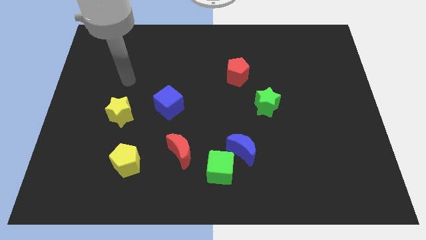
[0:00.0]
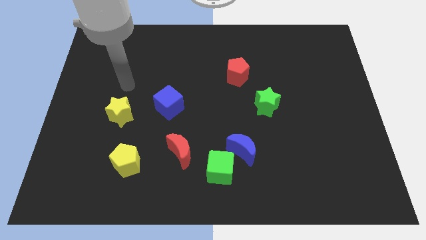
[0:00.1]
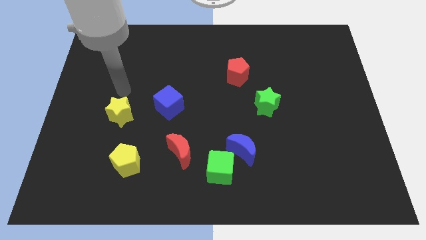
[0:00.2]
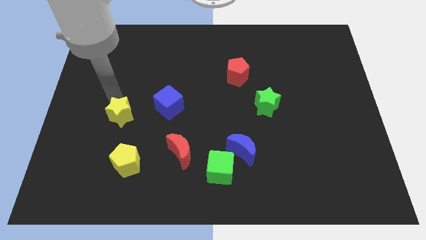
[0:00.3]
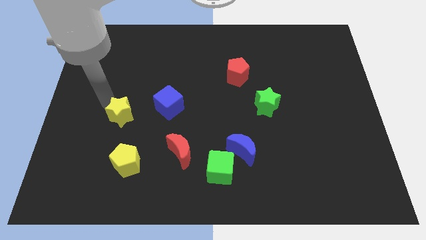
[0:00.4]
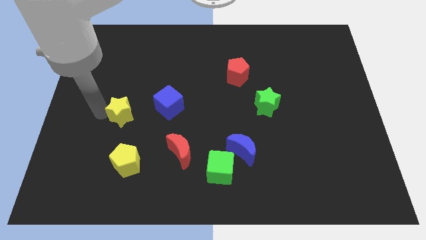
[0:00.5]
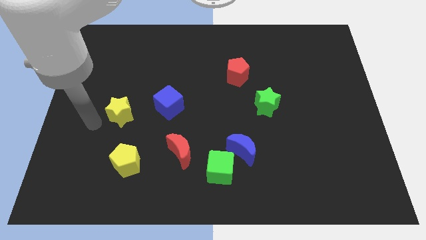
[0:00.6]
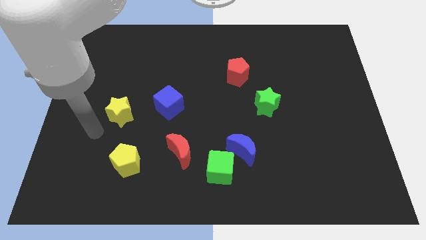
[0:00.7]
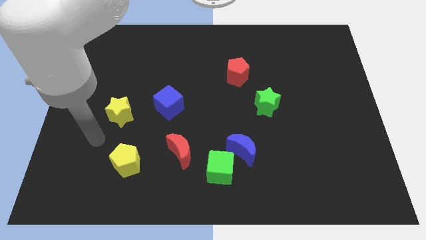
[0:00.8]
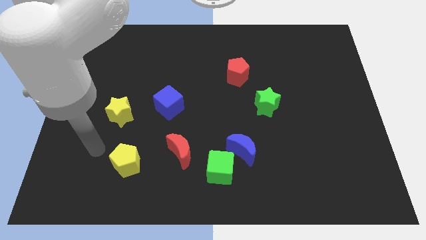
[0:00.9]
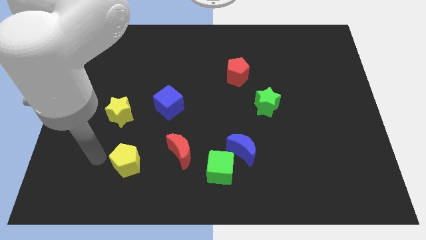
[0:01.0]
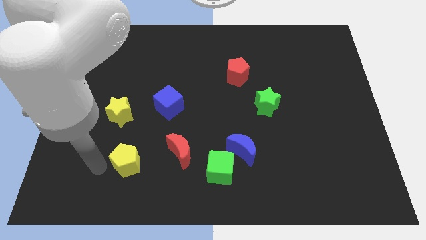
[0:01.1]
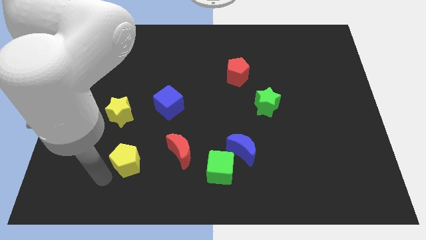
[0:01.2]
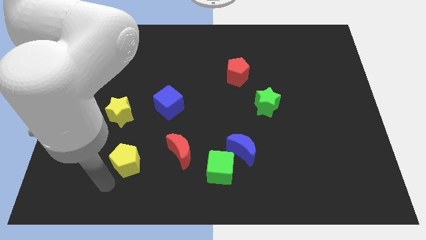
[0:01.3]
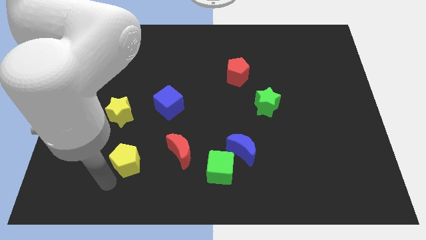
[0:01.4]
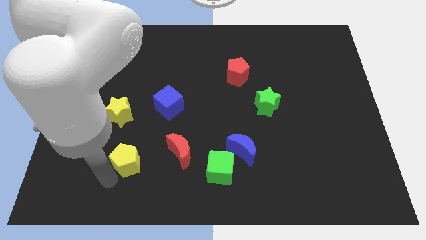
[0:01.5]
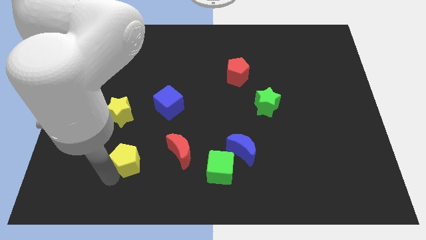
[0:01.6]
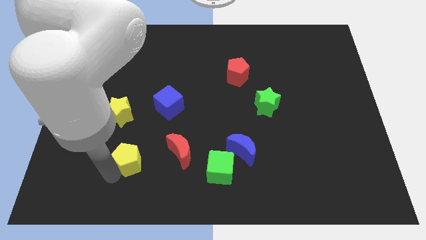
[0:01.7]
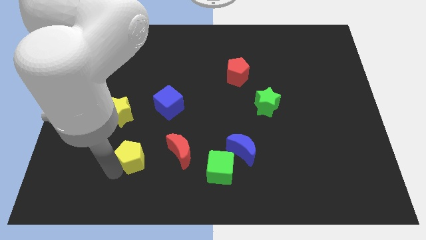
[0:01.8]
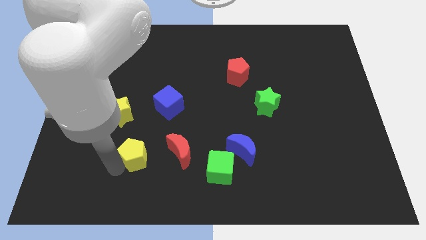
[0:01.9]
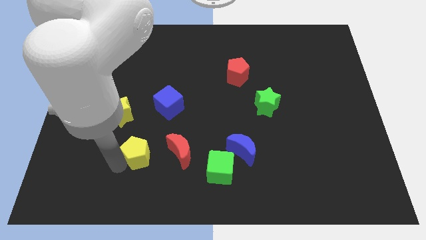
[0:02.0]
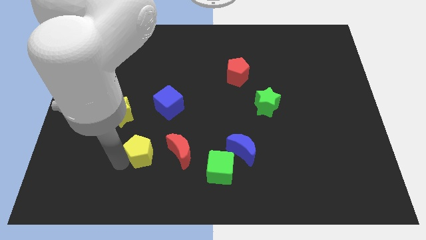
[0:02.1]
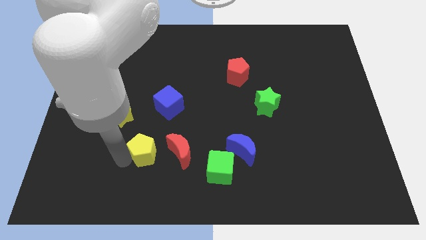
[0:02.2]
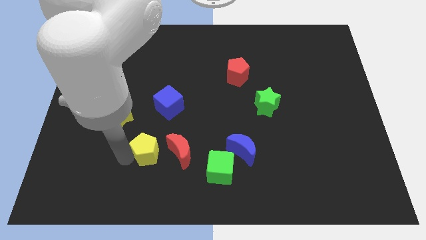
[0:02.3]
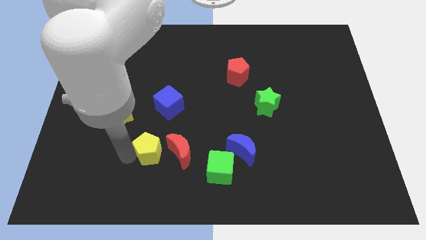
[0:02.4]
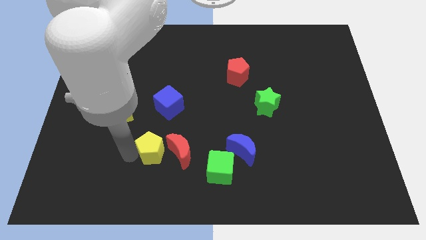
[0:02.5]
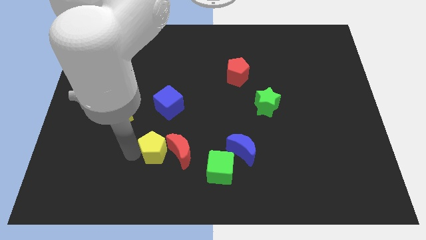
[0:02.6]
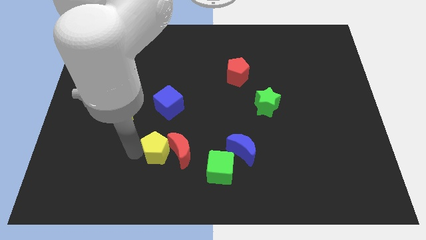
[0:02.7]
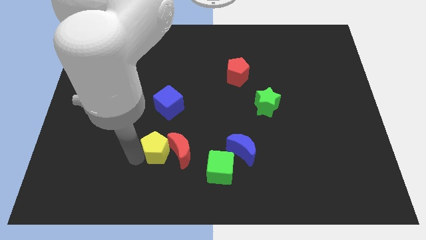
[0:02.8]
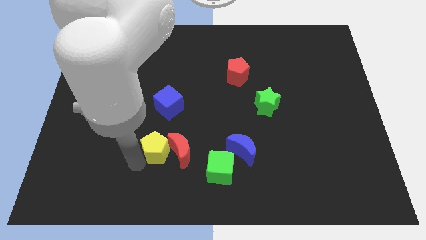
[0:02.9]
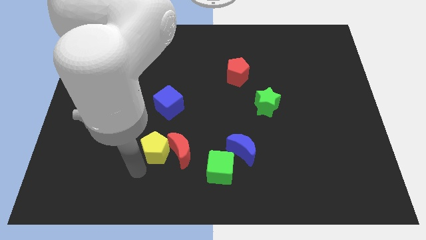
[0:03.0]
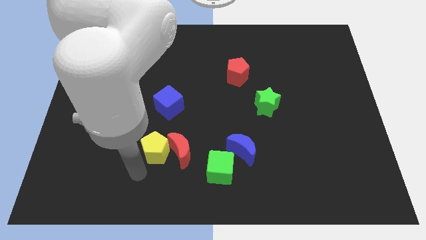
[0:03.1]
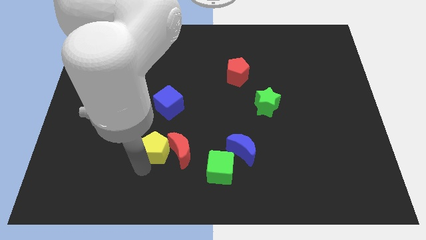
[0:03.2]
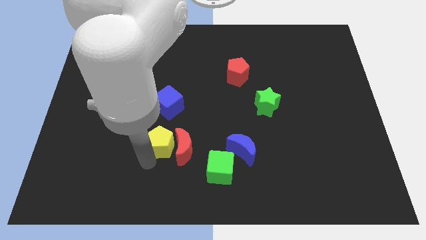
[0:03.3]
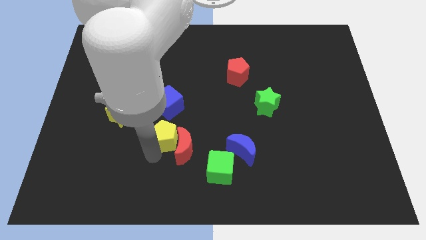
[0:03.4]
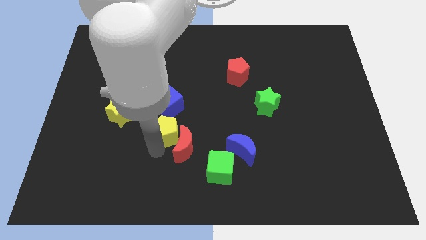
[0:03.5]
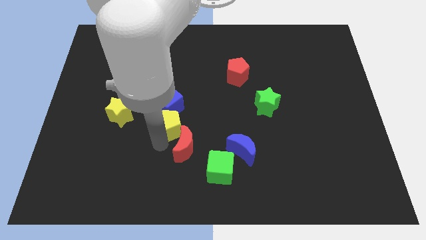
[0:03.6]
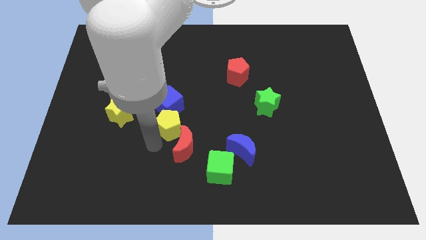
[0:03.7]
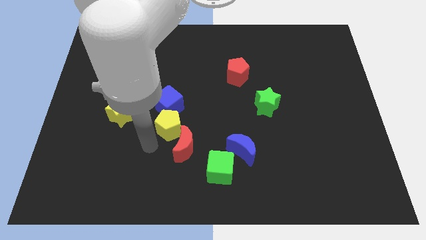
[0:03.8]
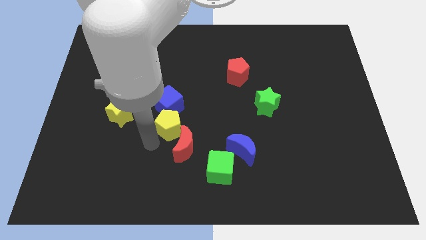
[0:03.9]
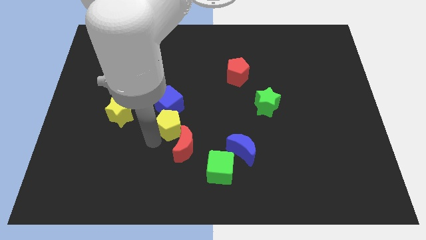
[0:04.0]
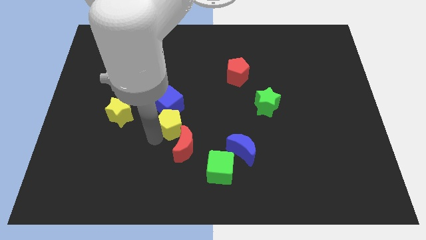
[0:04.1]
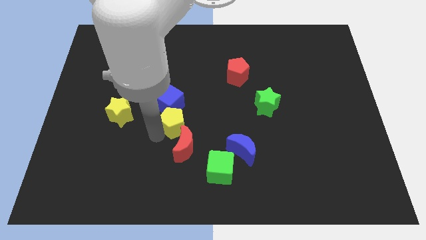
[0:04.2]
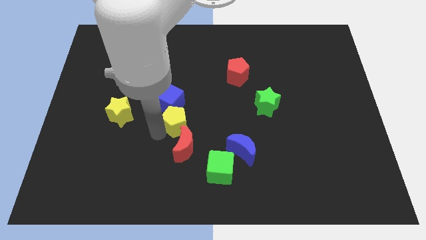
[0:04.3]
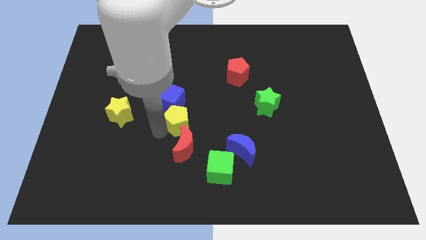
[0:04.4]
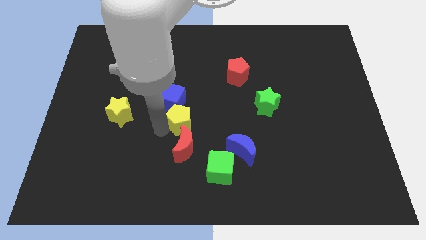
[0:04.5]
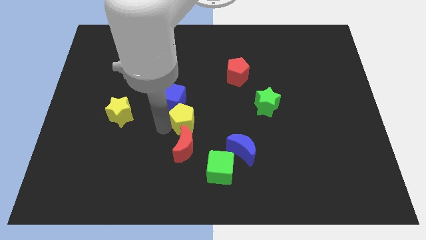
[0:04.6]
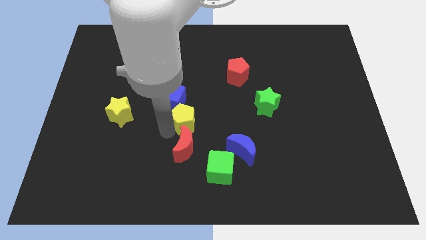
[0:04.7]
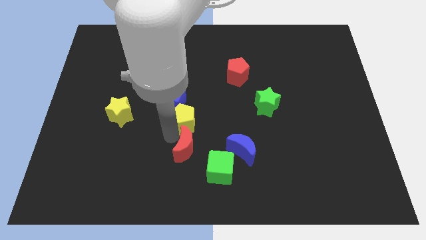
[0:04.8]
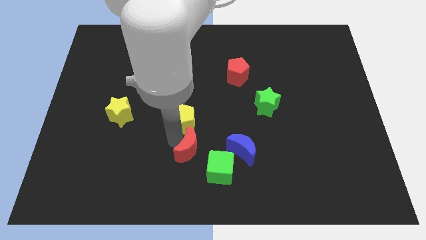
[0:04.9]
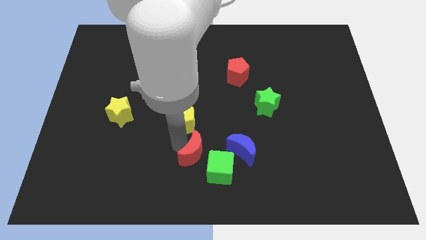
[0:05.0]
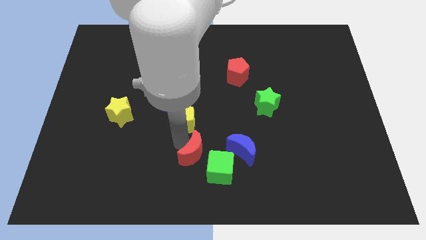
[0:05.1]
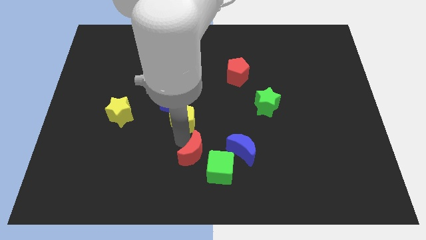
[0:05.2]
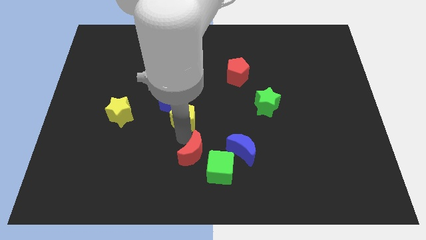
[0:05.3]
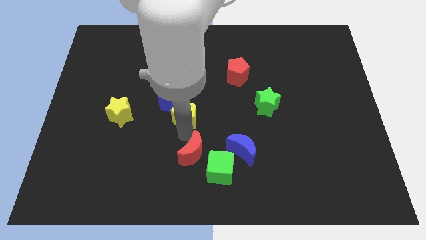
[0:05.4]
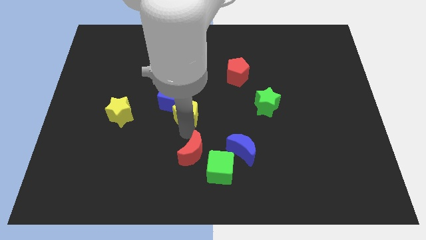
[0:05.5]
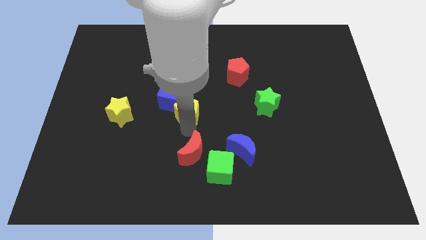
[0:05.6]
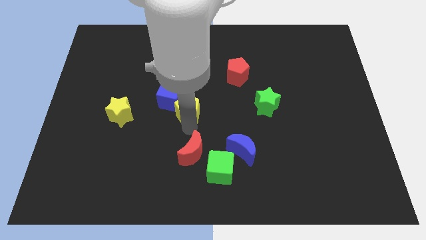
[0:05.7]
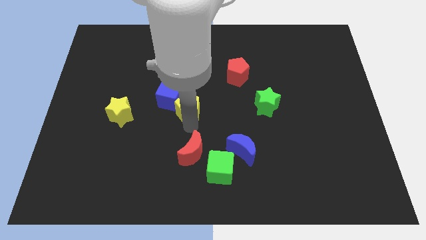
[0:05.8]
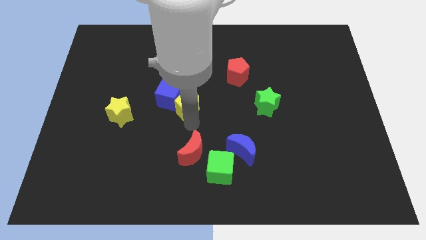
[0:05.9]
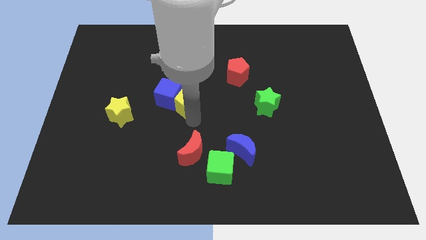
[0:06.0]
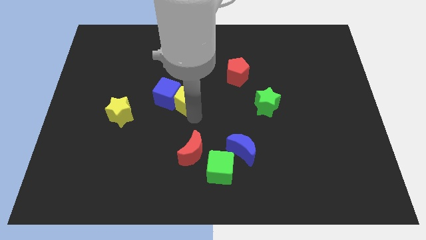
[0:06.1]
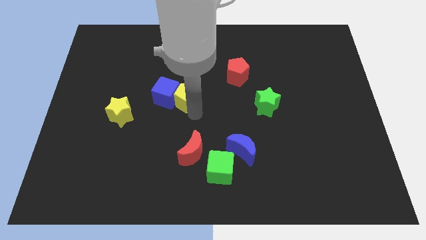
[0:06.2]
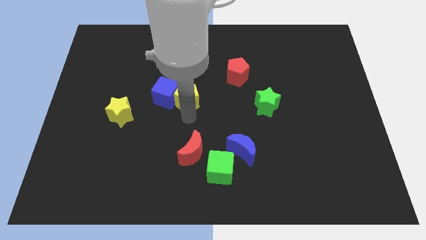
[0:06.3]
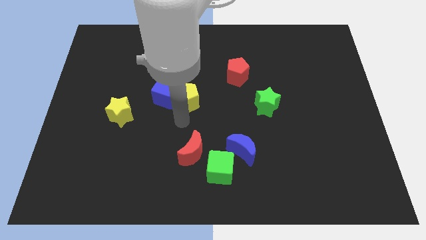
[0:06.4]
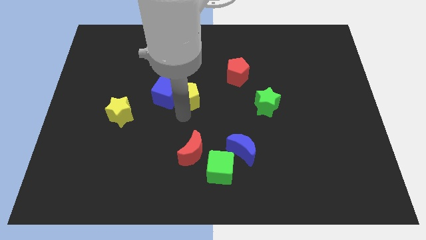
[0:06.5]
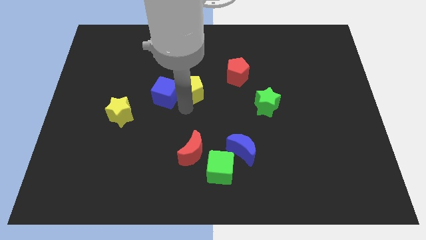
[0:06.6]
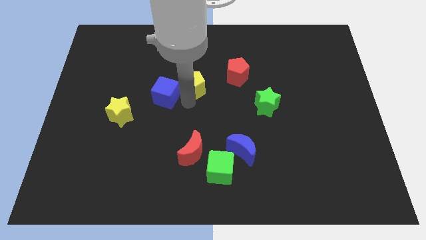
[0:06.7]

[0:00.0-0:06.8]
push the yellow pentagon to the left of the red pentagon
